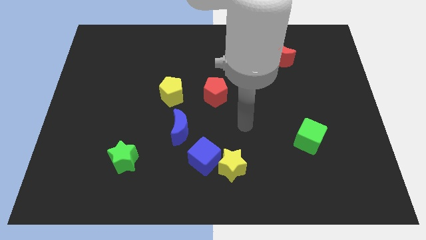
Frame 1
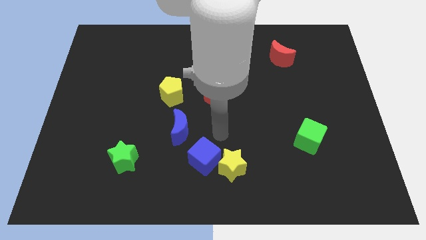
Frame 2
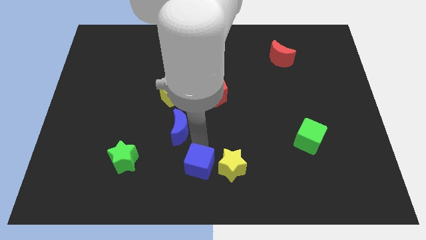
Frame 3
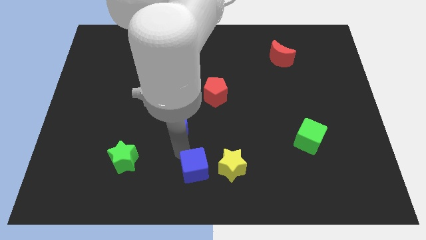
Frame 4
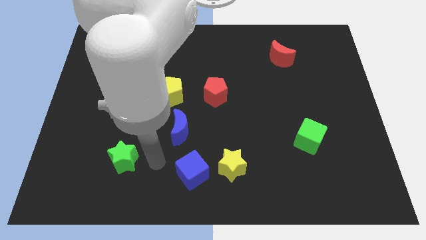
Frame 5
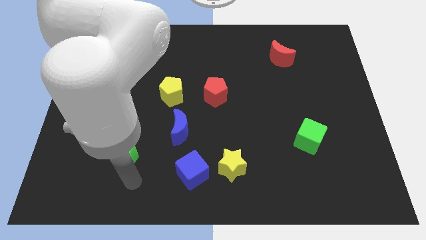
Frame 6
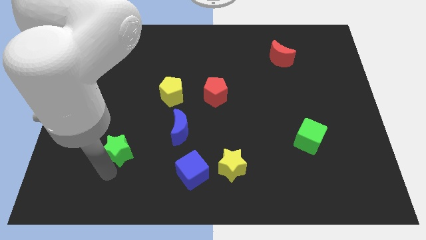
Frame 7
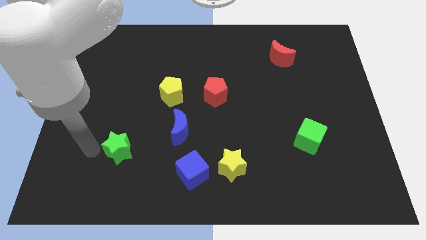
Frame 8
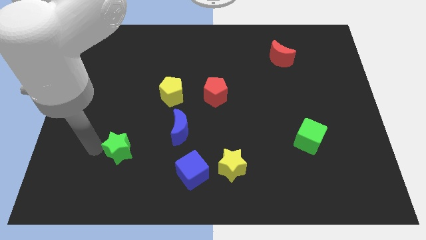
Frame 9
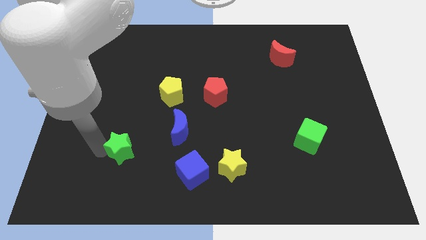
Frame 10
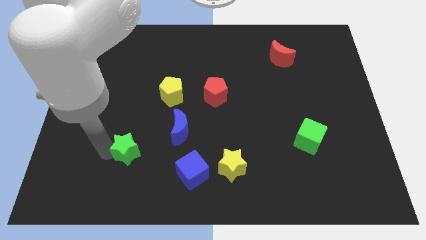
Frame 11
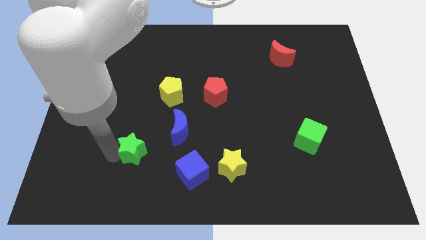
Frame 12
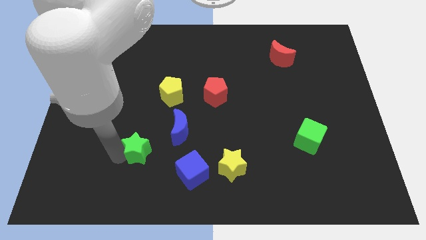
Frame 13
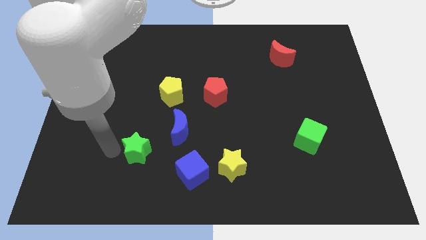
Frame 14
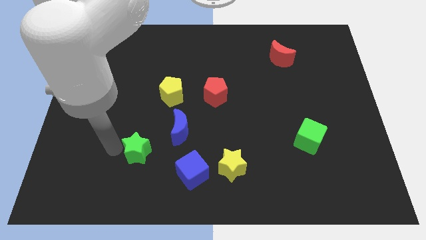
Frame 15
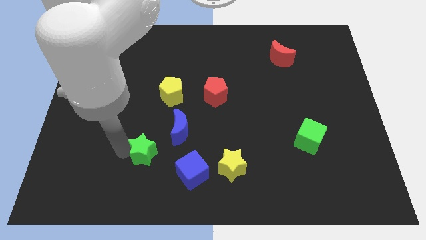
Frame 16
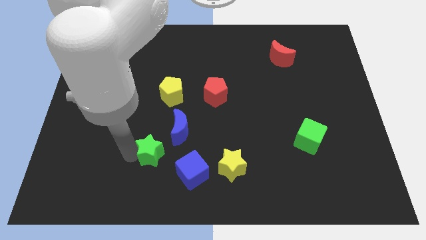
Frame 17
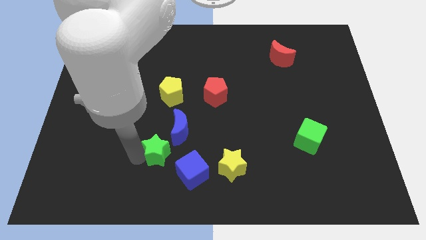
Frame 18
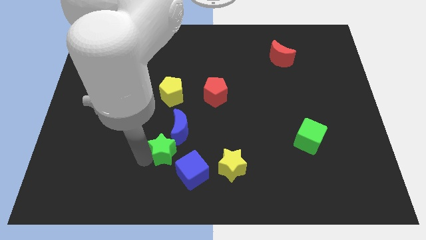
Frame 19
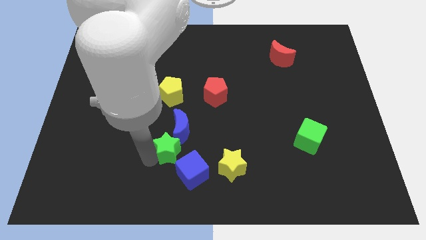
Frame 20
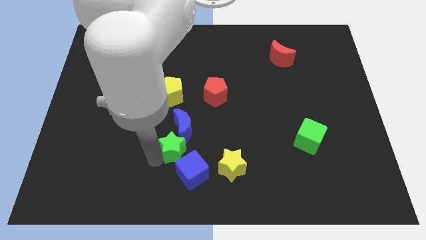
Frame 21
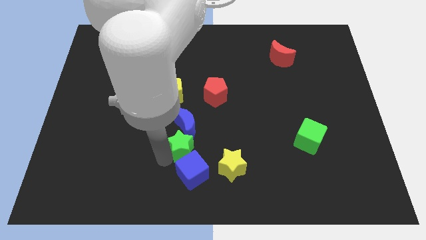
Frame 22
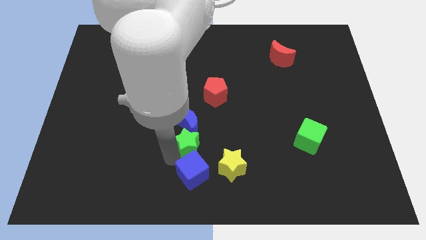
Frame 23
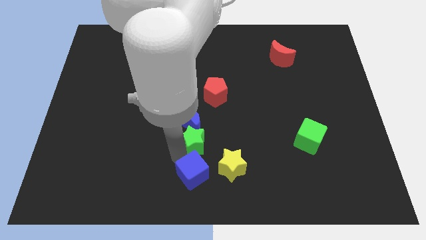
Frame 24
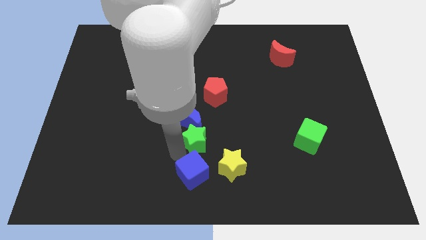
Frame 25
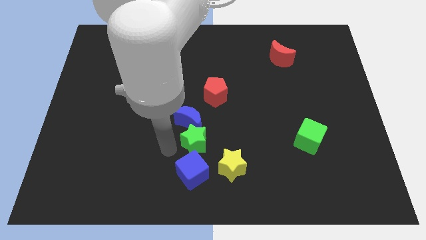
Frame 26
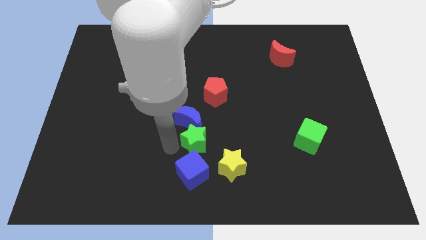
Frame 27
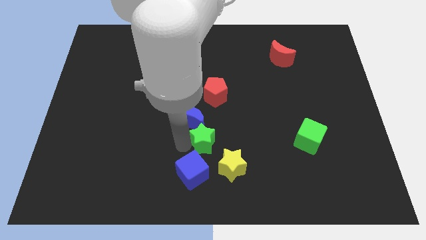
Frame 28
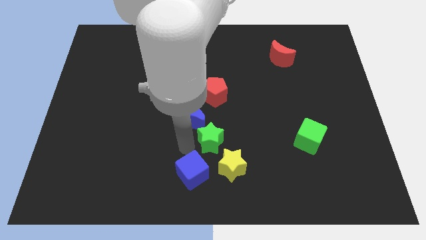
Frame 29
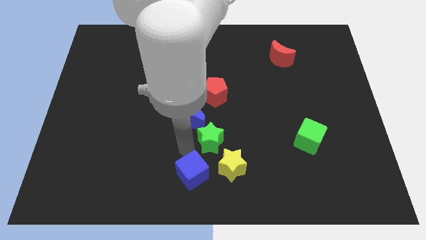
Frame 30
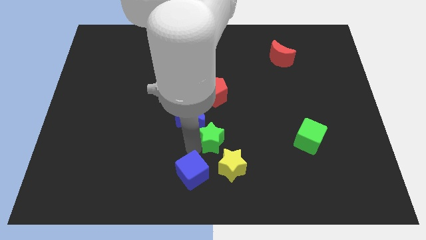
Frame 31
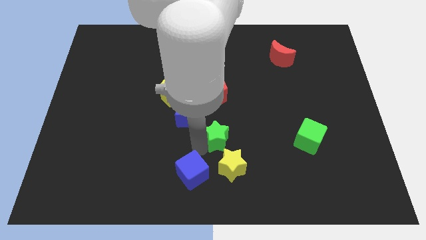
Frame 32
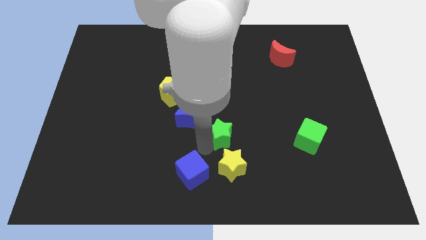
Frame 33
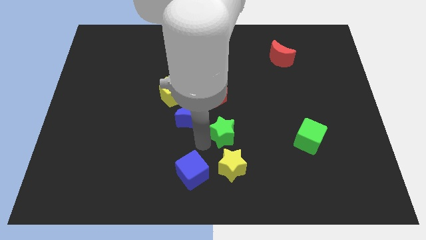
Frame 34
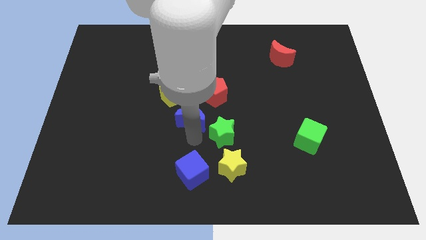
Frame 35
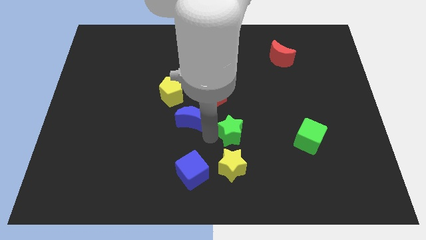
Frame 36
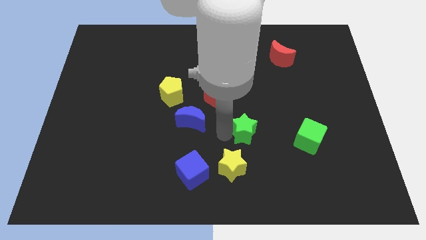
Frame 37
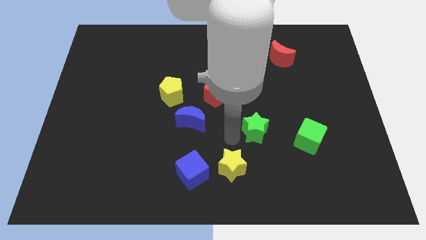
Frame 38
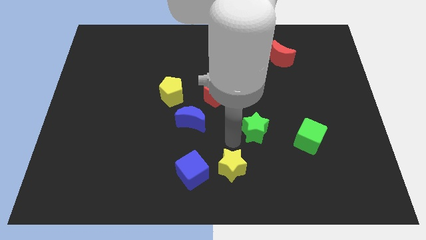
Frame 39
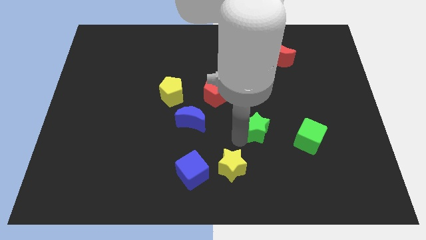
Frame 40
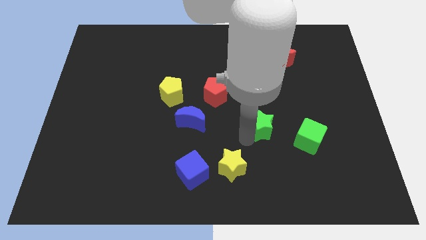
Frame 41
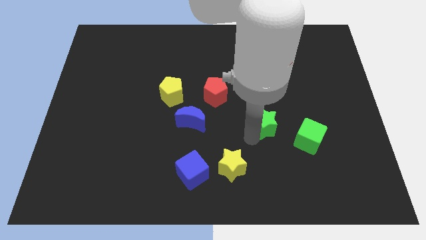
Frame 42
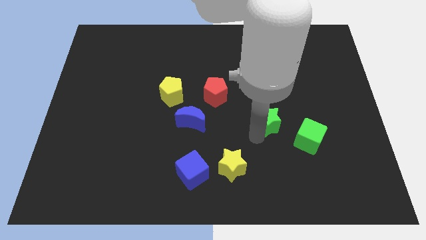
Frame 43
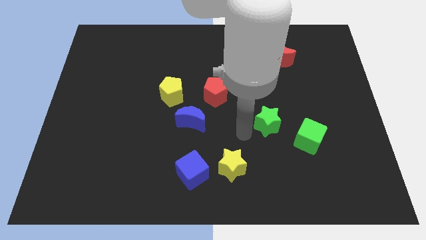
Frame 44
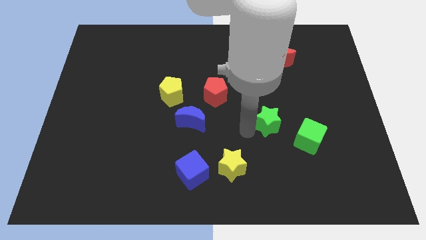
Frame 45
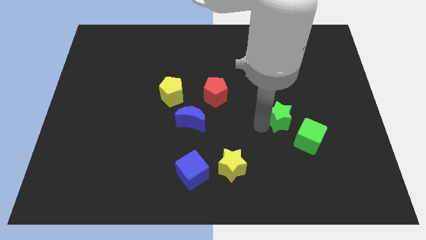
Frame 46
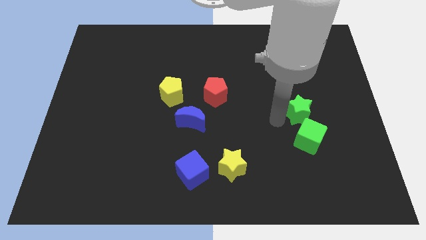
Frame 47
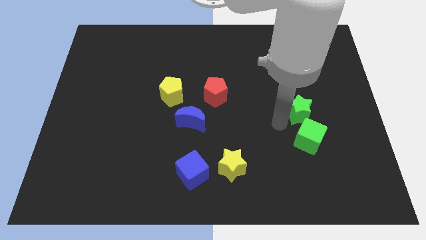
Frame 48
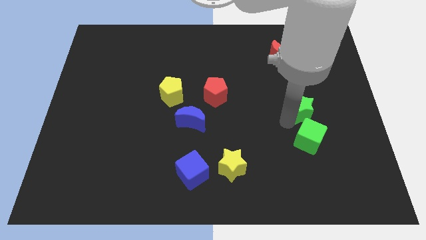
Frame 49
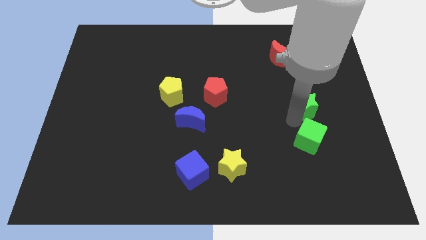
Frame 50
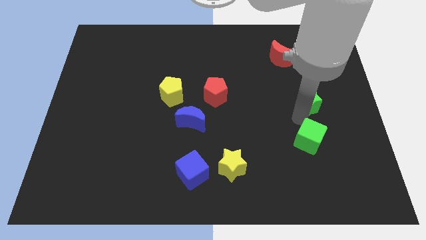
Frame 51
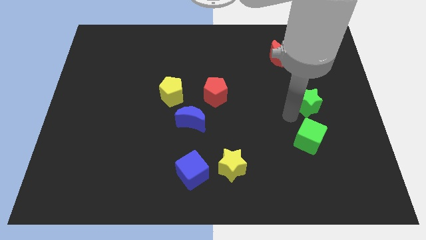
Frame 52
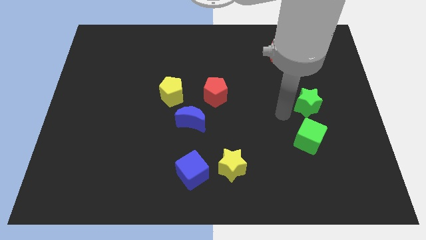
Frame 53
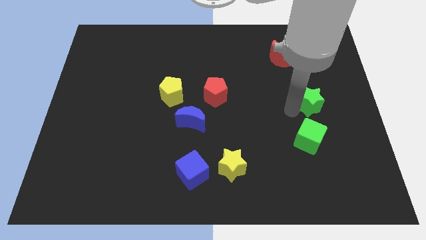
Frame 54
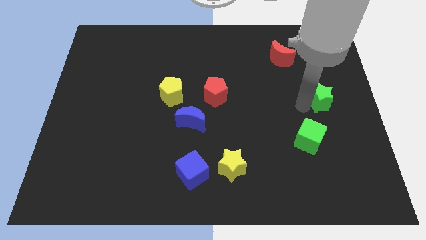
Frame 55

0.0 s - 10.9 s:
put the green star to the right side
